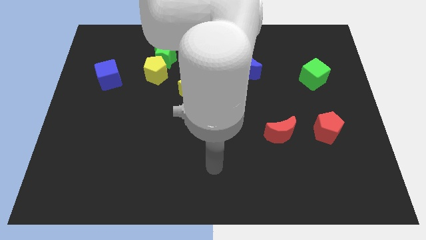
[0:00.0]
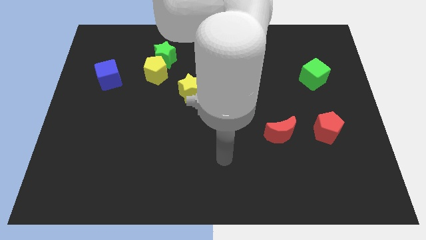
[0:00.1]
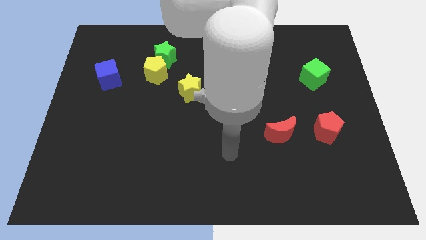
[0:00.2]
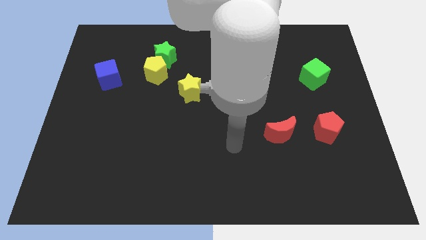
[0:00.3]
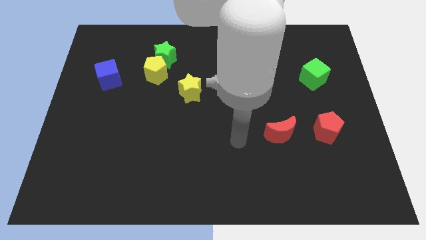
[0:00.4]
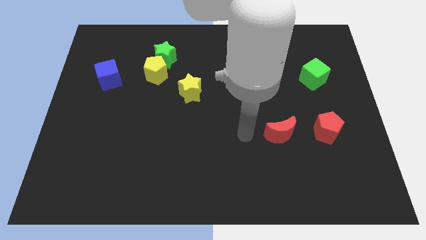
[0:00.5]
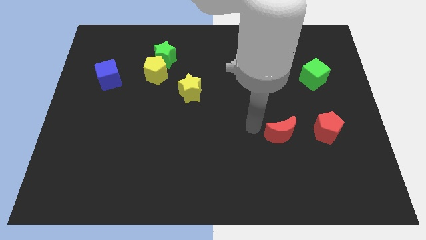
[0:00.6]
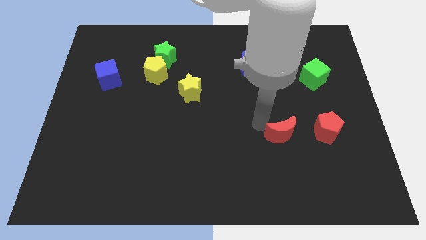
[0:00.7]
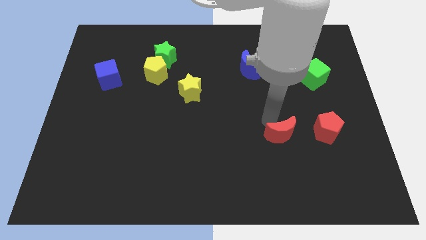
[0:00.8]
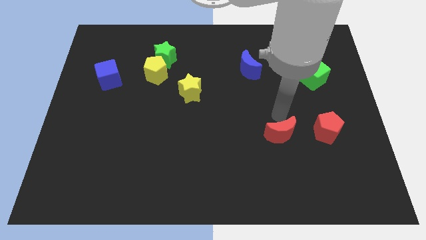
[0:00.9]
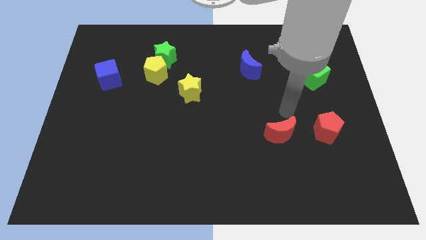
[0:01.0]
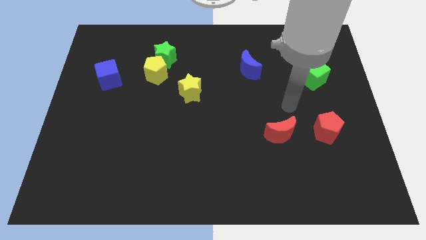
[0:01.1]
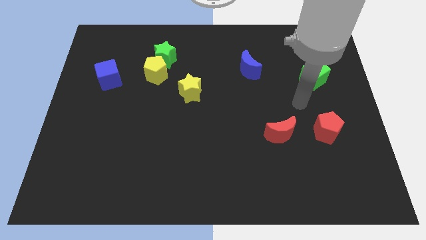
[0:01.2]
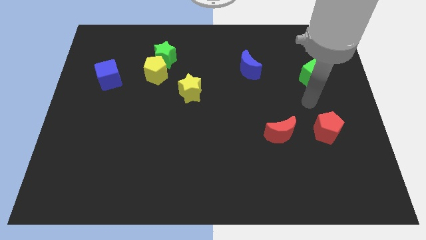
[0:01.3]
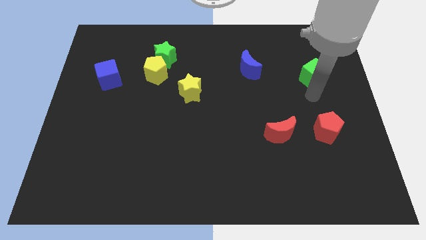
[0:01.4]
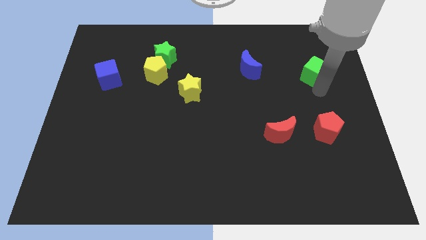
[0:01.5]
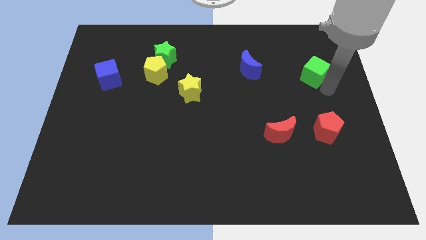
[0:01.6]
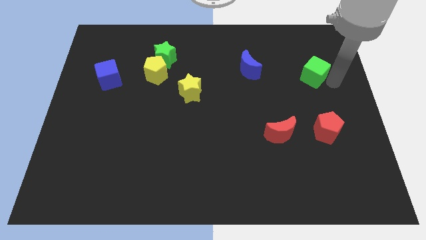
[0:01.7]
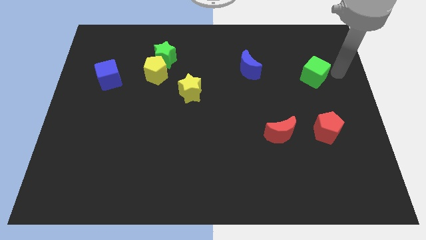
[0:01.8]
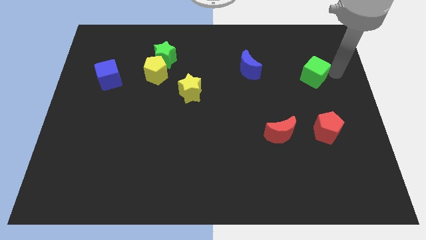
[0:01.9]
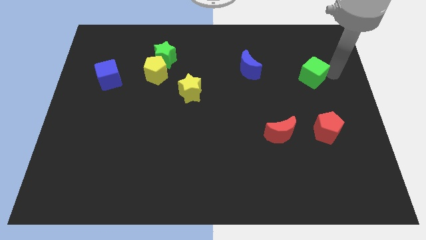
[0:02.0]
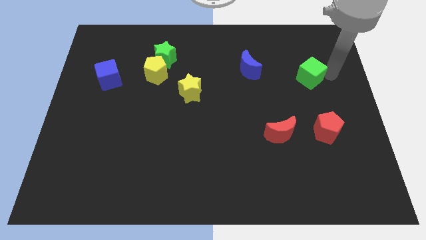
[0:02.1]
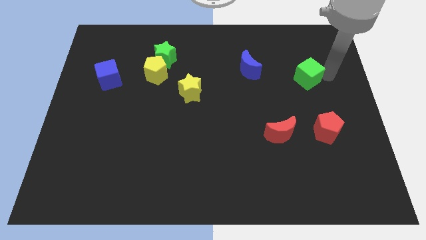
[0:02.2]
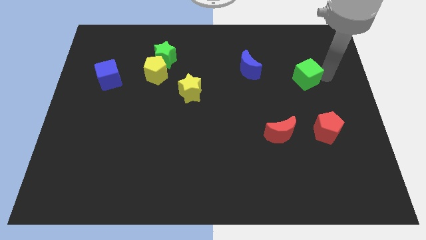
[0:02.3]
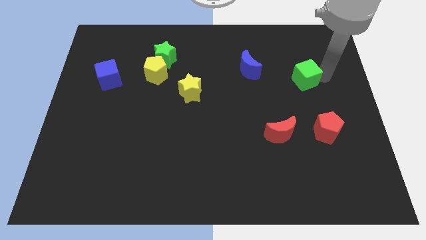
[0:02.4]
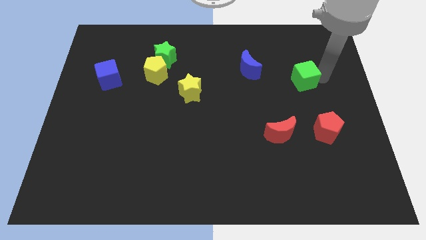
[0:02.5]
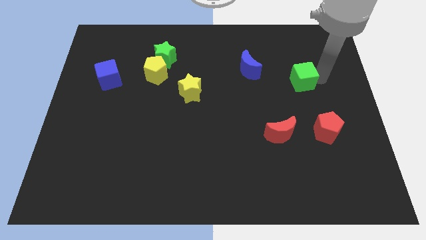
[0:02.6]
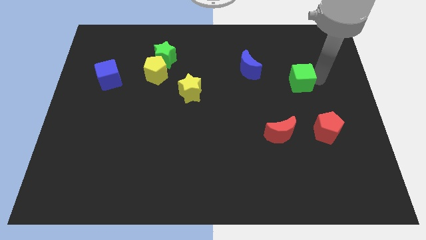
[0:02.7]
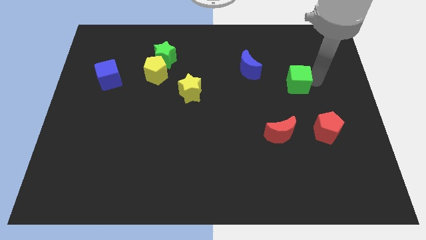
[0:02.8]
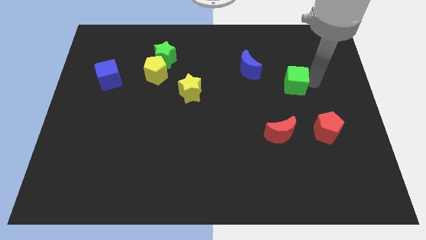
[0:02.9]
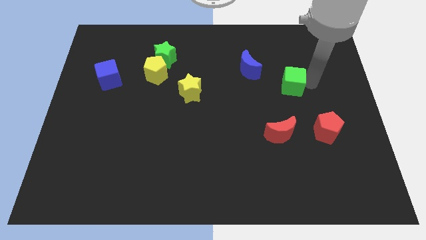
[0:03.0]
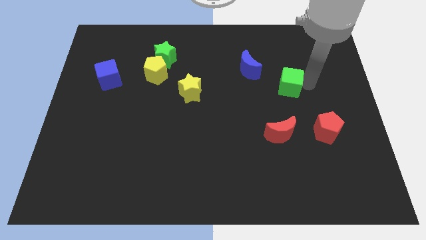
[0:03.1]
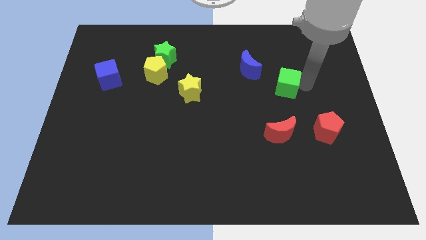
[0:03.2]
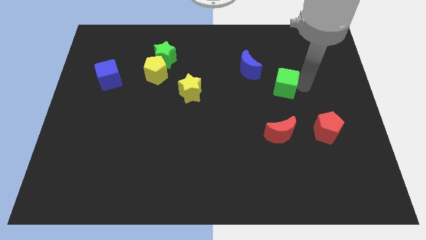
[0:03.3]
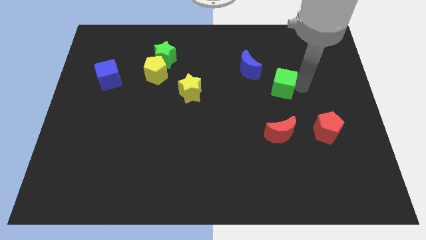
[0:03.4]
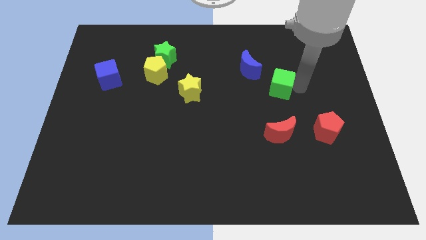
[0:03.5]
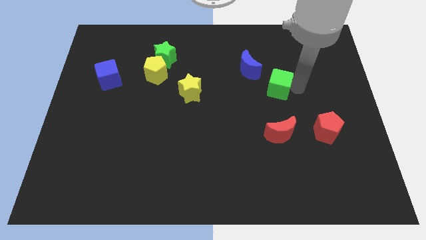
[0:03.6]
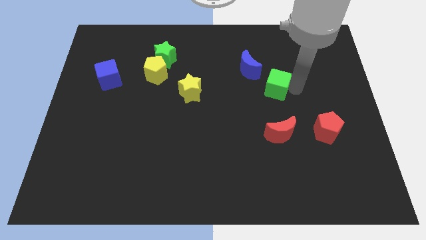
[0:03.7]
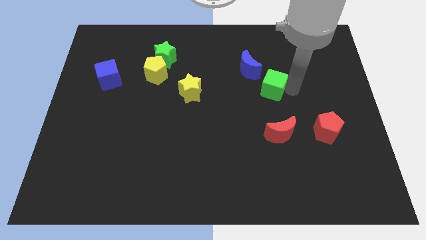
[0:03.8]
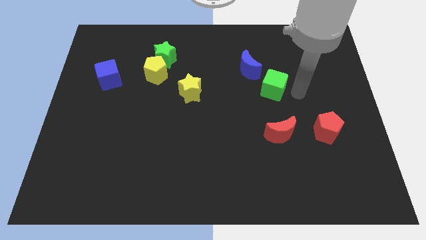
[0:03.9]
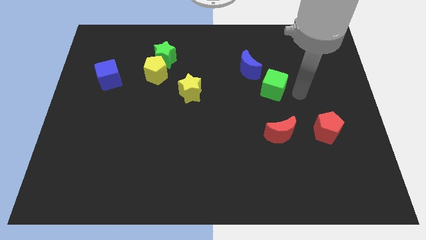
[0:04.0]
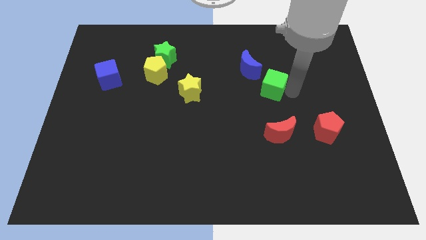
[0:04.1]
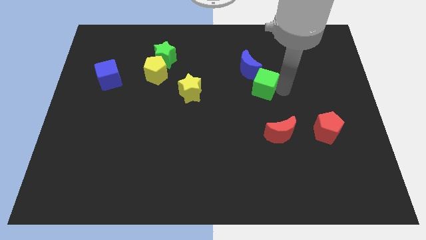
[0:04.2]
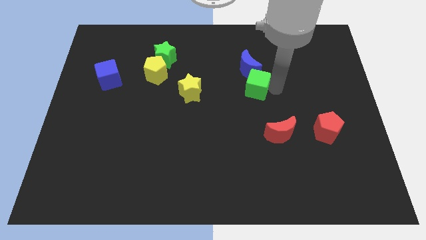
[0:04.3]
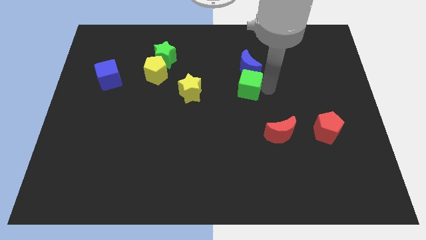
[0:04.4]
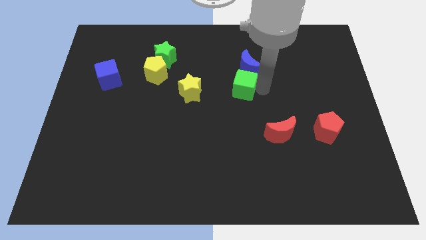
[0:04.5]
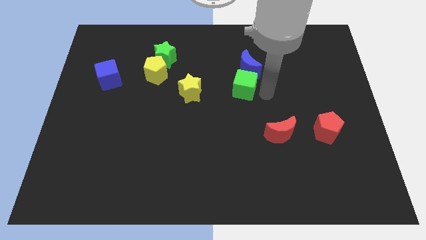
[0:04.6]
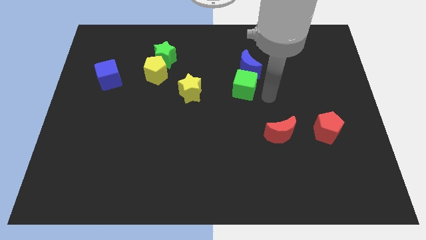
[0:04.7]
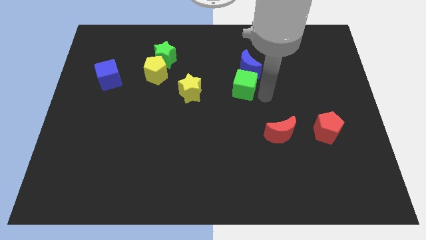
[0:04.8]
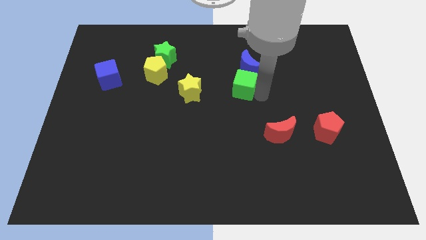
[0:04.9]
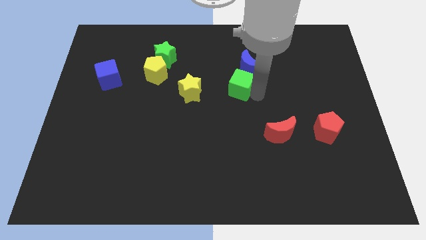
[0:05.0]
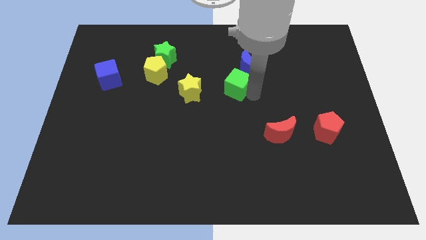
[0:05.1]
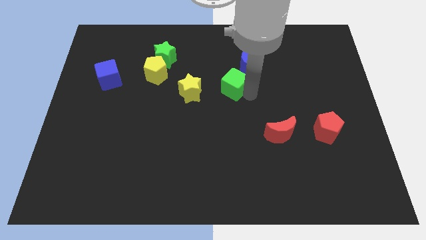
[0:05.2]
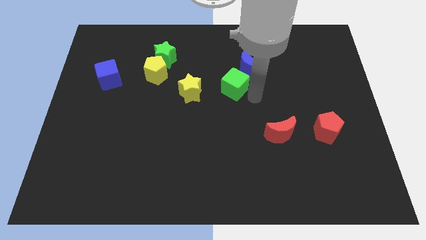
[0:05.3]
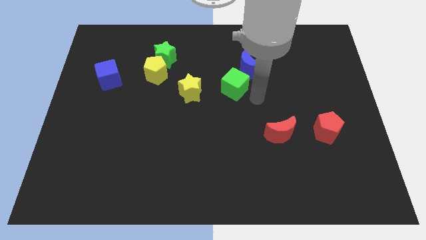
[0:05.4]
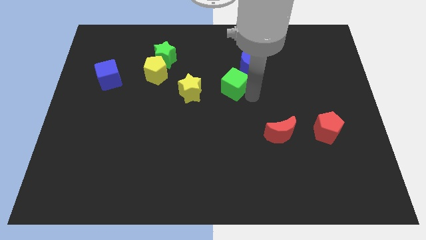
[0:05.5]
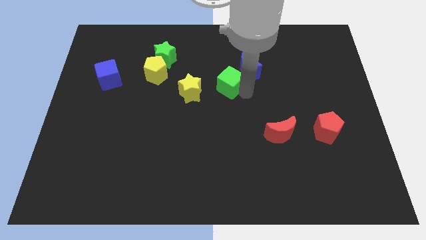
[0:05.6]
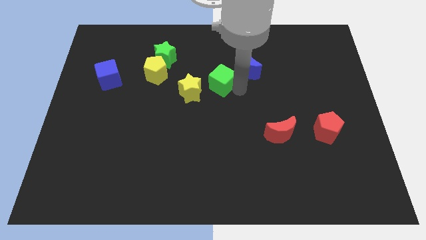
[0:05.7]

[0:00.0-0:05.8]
push the green cube to the top right of the yellow star

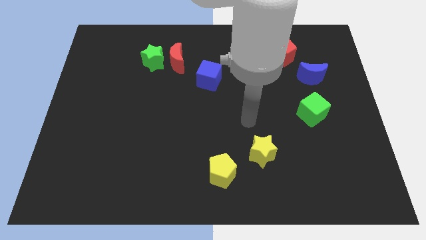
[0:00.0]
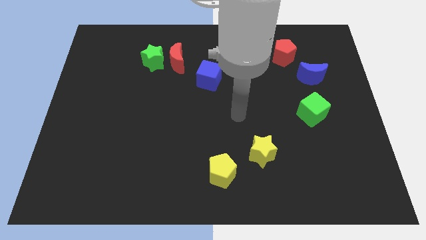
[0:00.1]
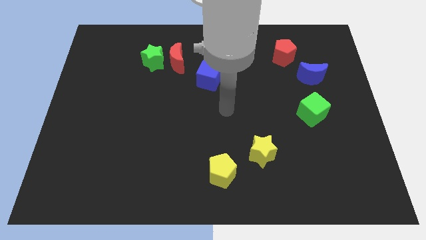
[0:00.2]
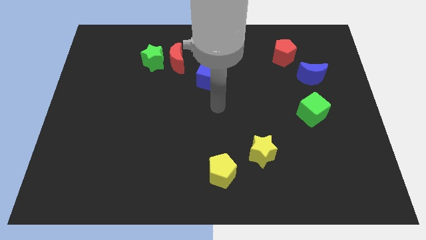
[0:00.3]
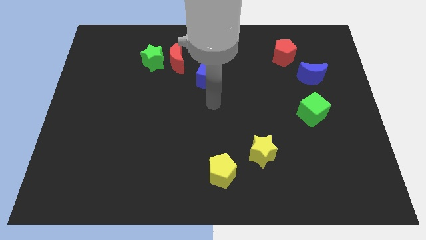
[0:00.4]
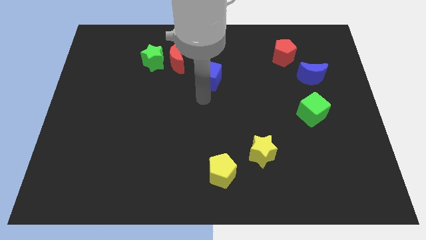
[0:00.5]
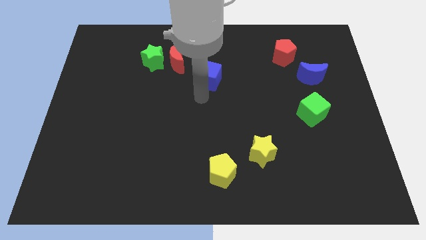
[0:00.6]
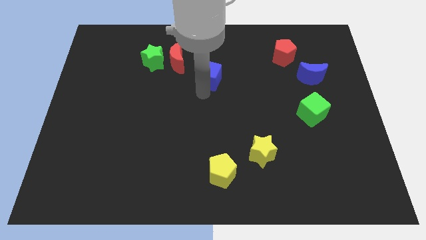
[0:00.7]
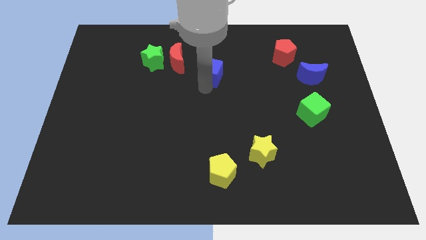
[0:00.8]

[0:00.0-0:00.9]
put the blue cube to the right of the red moon
